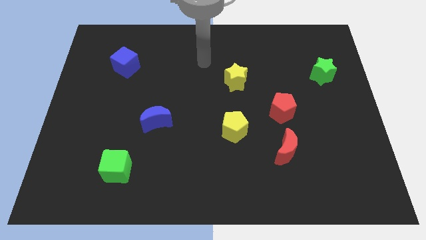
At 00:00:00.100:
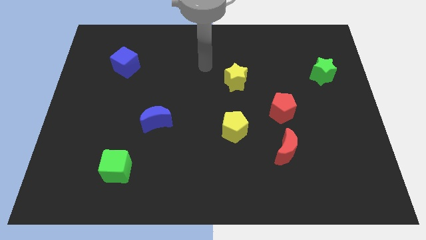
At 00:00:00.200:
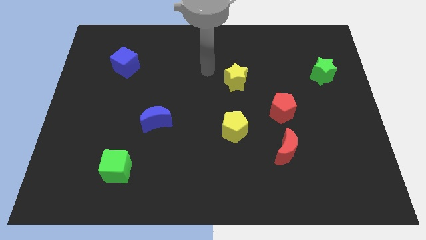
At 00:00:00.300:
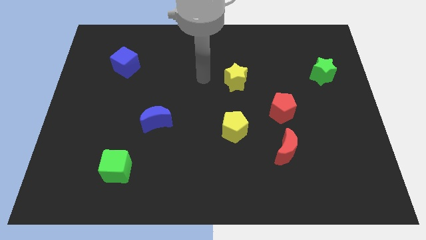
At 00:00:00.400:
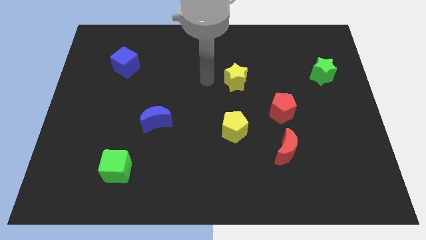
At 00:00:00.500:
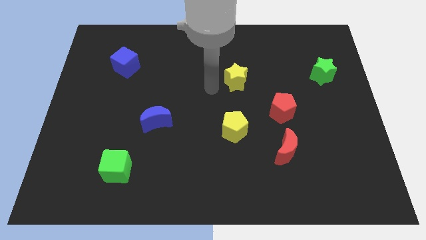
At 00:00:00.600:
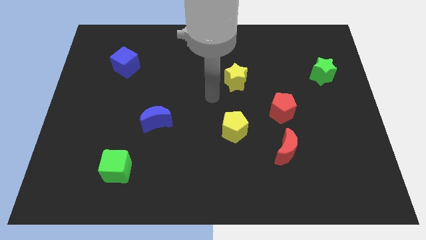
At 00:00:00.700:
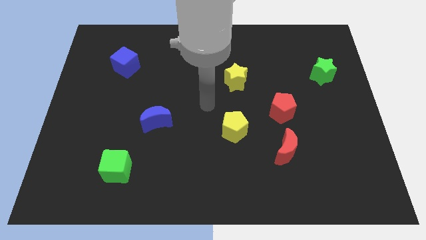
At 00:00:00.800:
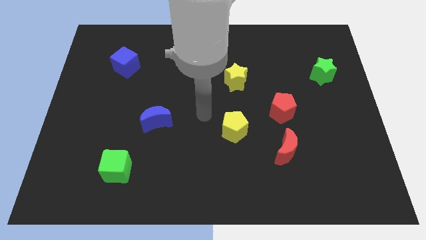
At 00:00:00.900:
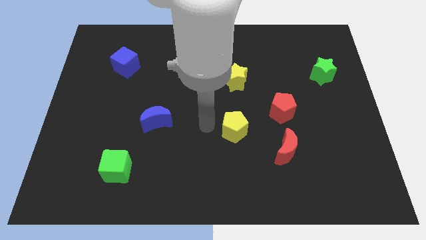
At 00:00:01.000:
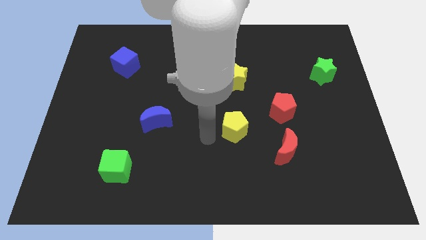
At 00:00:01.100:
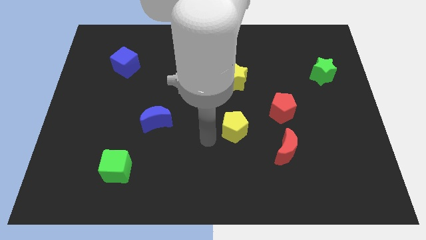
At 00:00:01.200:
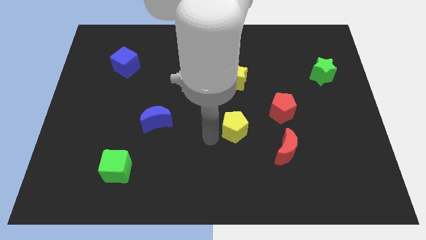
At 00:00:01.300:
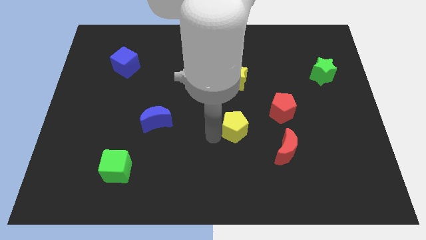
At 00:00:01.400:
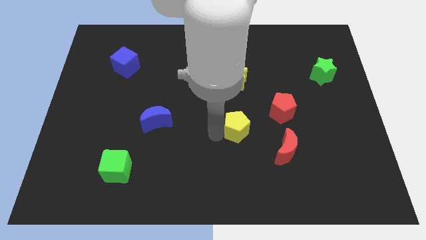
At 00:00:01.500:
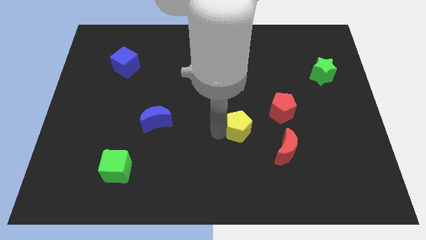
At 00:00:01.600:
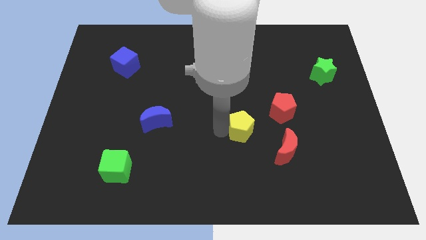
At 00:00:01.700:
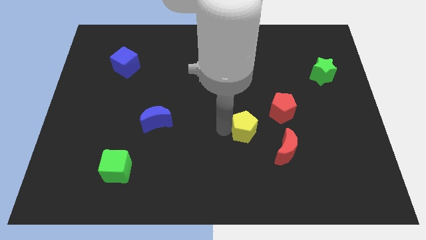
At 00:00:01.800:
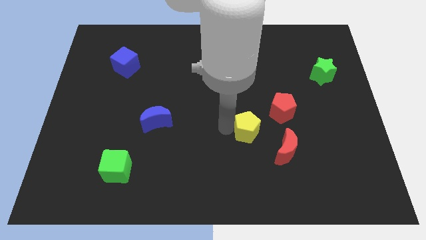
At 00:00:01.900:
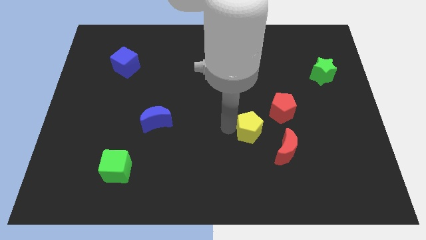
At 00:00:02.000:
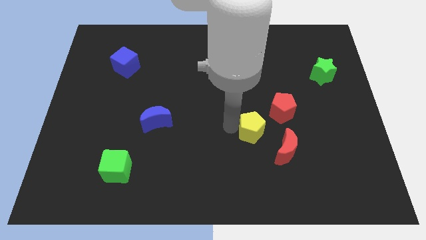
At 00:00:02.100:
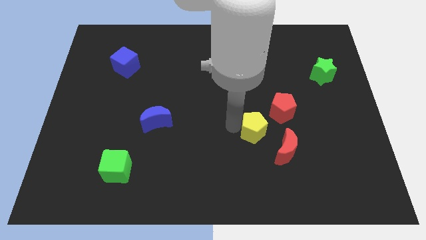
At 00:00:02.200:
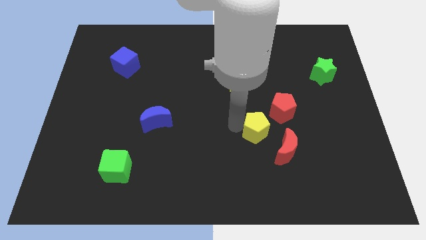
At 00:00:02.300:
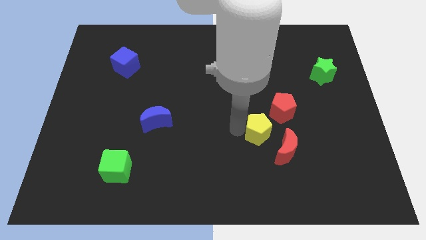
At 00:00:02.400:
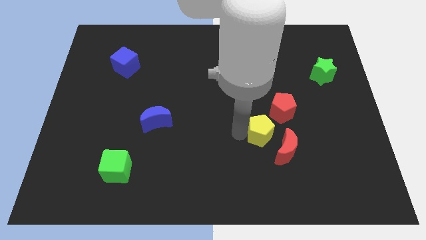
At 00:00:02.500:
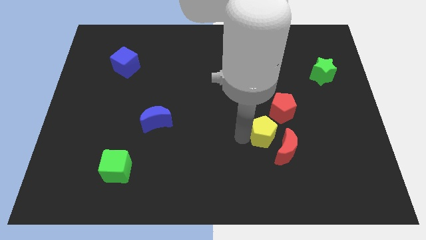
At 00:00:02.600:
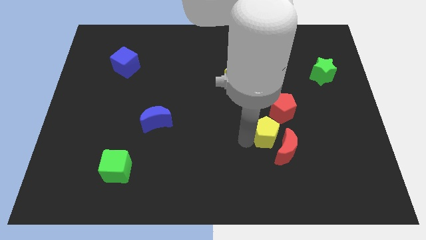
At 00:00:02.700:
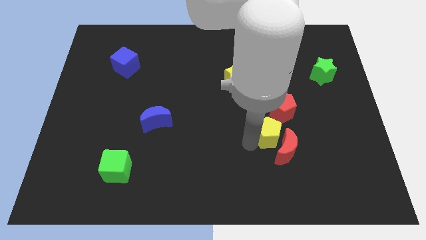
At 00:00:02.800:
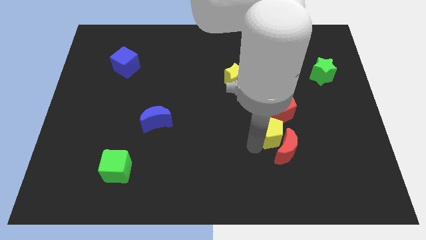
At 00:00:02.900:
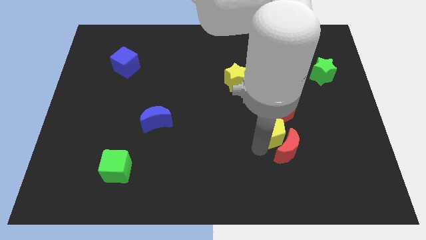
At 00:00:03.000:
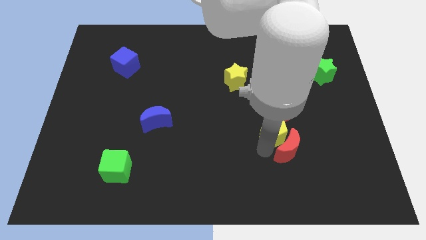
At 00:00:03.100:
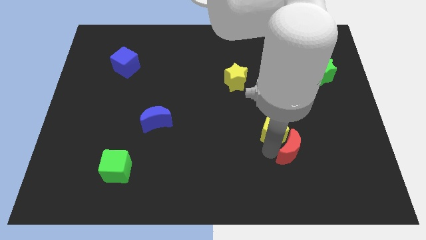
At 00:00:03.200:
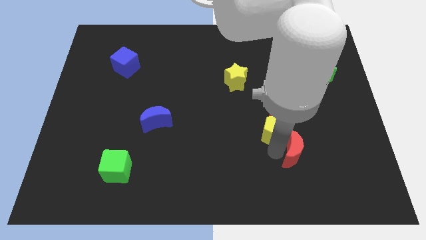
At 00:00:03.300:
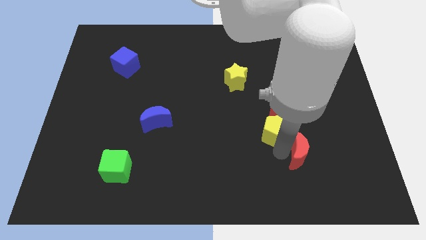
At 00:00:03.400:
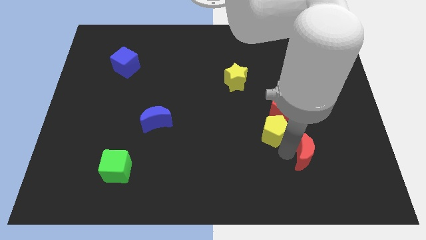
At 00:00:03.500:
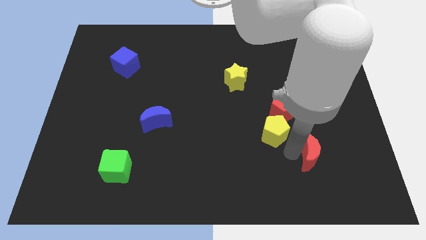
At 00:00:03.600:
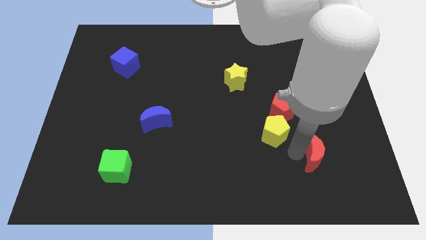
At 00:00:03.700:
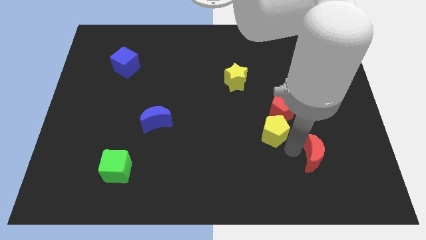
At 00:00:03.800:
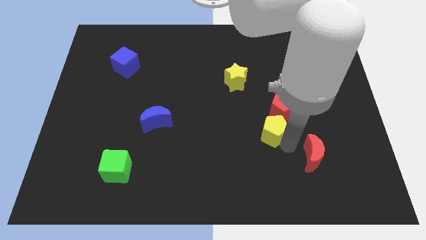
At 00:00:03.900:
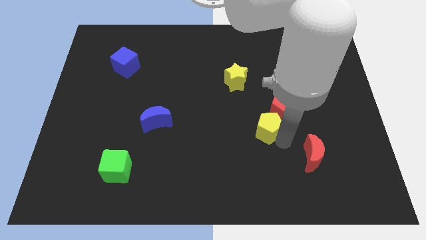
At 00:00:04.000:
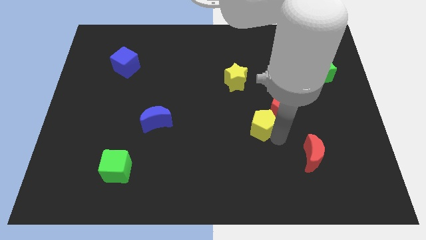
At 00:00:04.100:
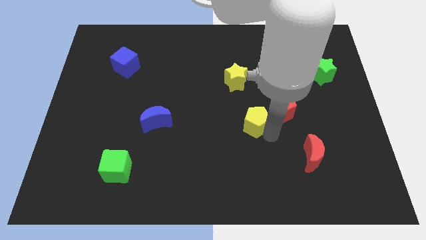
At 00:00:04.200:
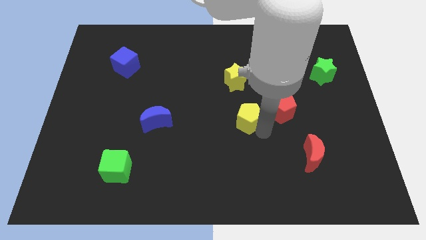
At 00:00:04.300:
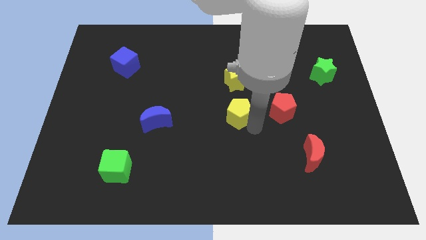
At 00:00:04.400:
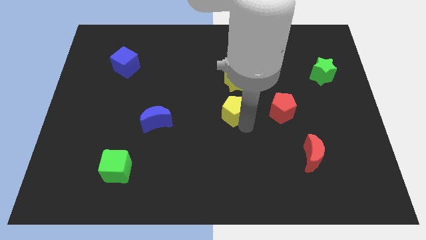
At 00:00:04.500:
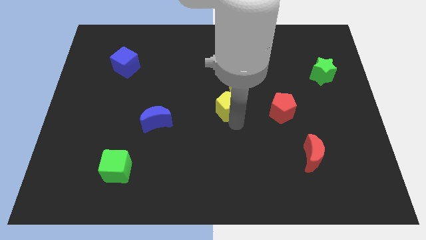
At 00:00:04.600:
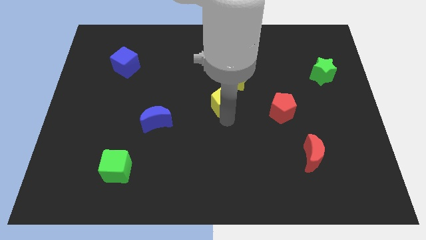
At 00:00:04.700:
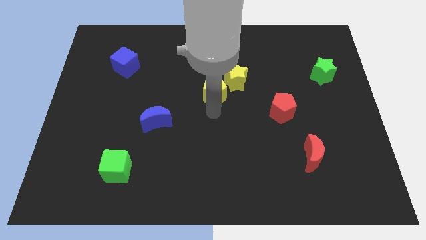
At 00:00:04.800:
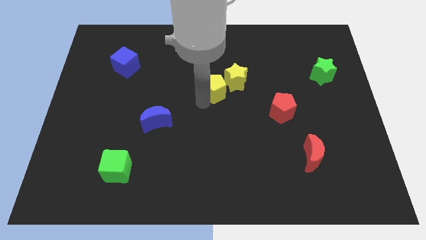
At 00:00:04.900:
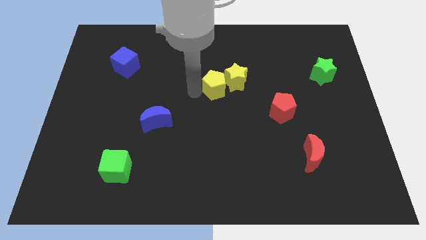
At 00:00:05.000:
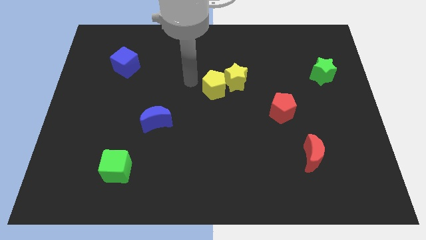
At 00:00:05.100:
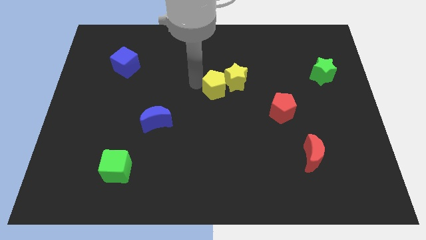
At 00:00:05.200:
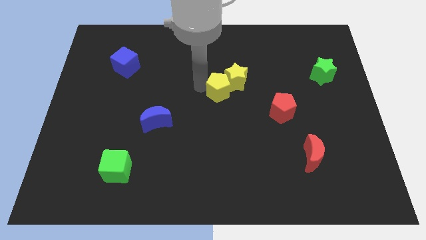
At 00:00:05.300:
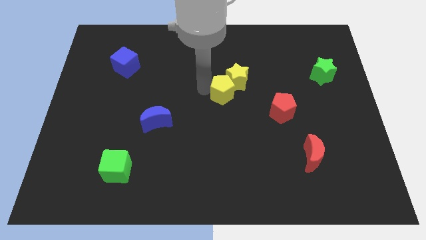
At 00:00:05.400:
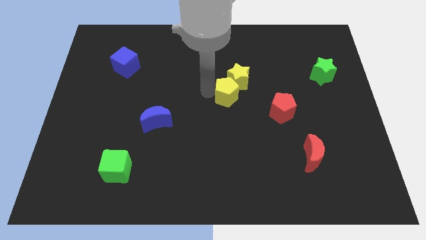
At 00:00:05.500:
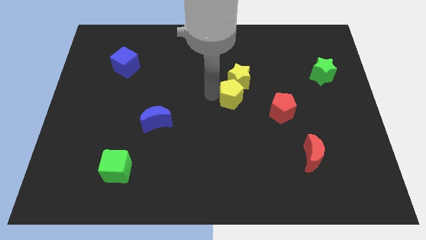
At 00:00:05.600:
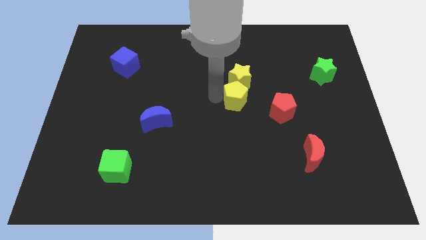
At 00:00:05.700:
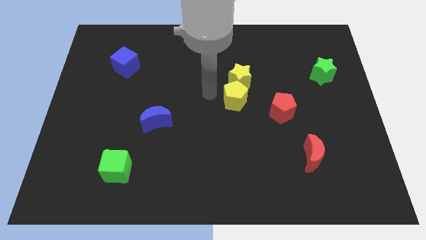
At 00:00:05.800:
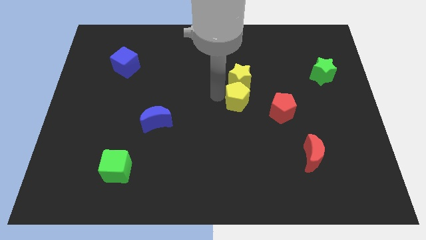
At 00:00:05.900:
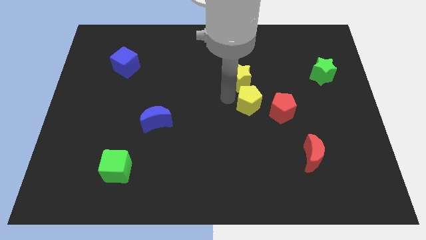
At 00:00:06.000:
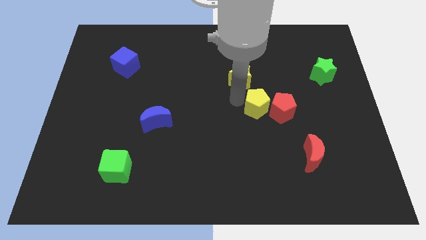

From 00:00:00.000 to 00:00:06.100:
move the yellow pentagon to the red pentagon

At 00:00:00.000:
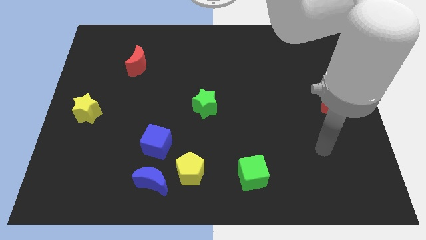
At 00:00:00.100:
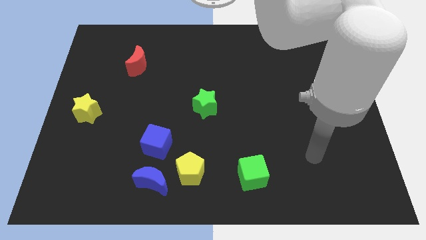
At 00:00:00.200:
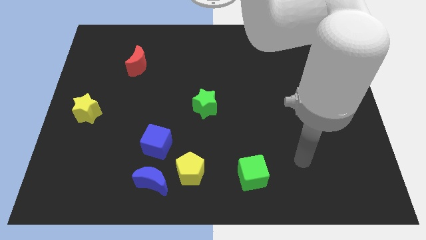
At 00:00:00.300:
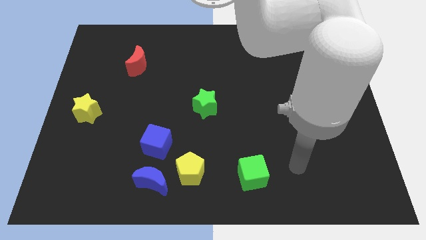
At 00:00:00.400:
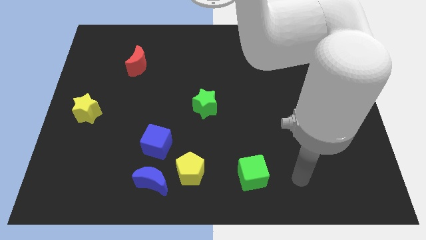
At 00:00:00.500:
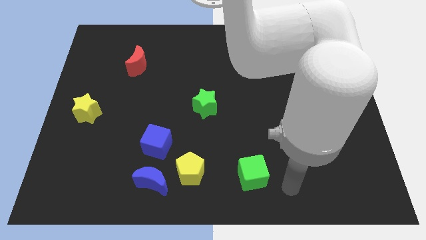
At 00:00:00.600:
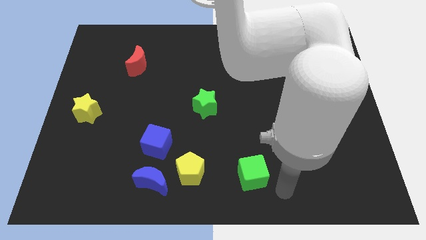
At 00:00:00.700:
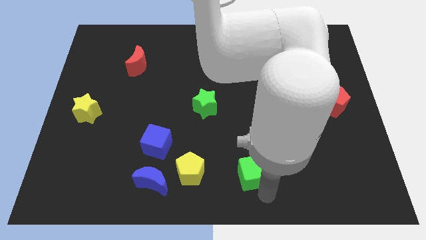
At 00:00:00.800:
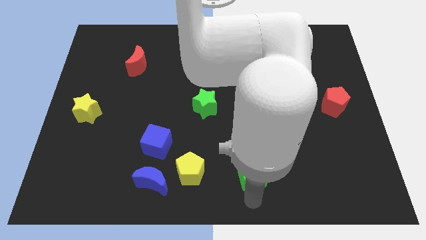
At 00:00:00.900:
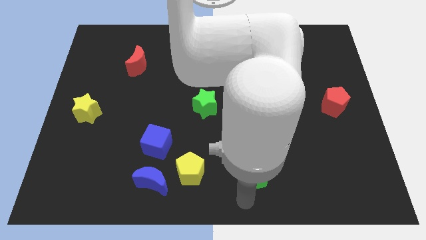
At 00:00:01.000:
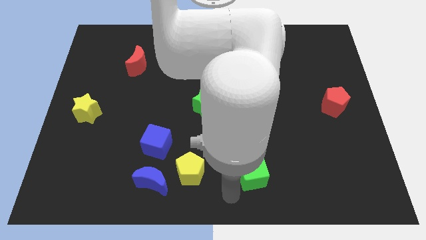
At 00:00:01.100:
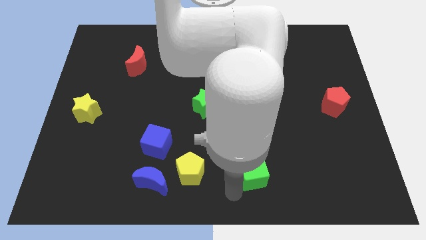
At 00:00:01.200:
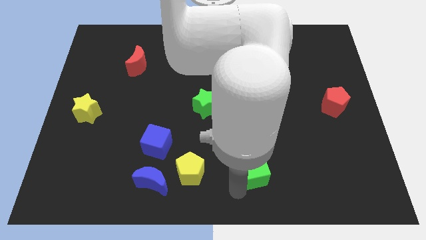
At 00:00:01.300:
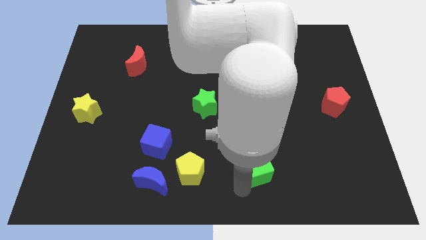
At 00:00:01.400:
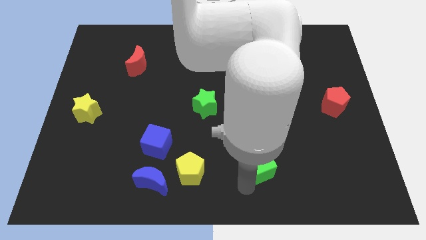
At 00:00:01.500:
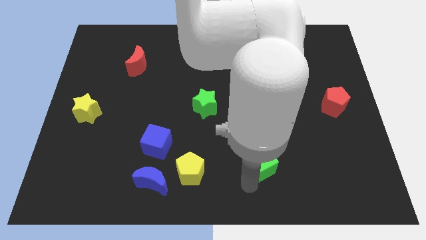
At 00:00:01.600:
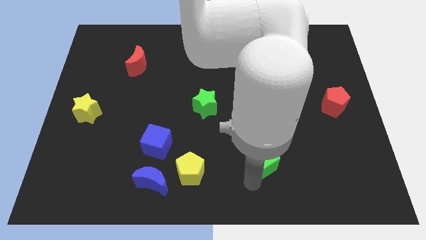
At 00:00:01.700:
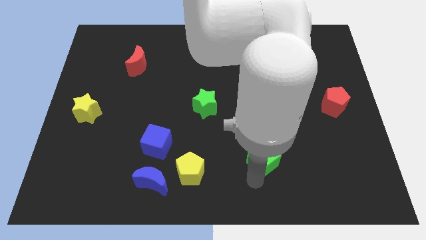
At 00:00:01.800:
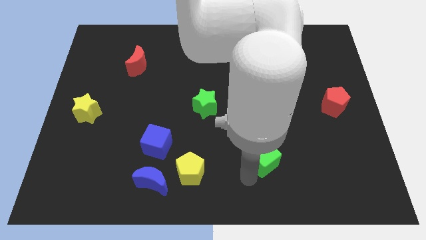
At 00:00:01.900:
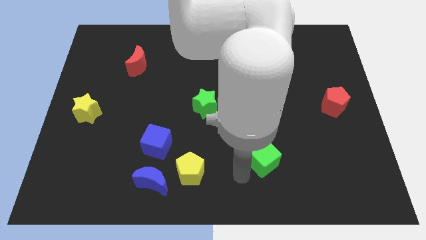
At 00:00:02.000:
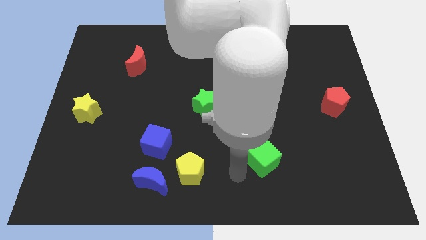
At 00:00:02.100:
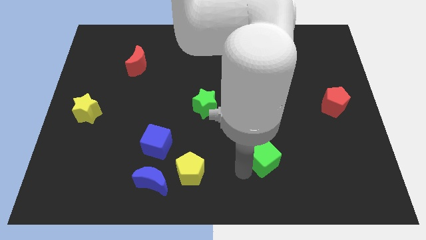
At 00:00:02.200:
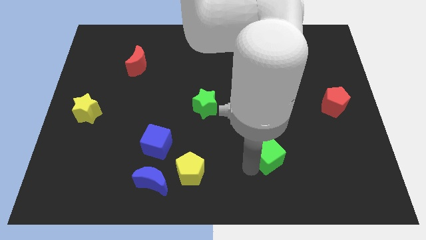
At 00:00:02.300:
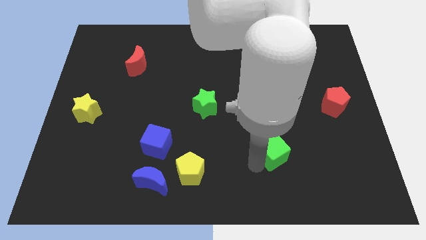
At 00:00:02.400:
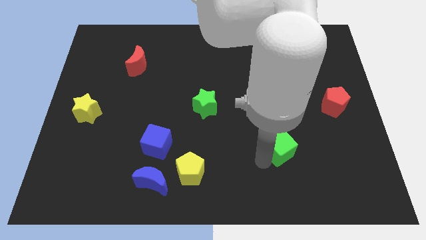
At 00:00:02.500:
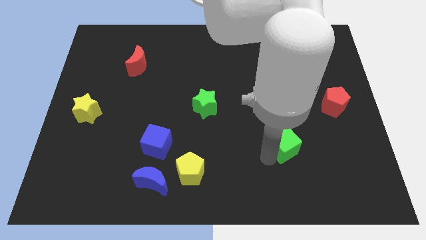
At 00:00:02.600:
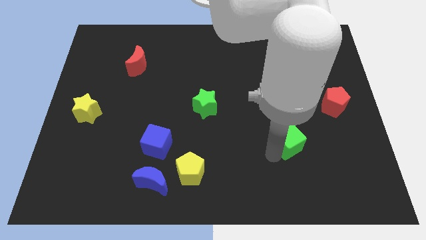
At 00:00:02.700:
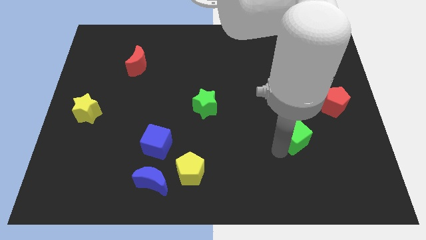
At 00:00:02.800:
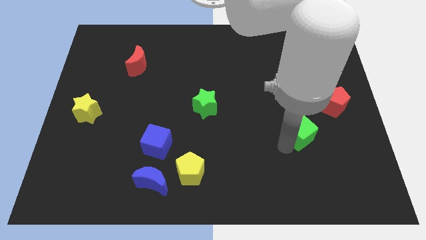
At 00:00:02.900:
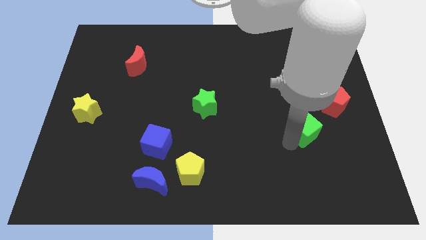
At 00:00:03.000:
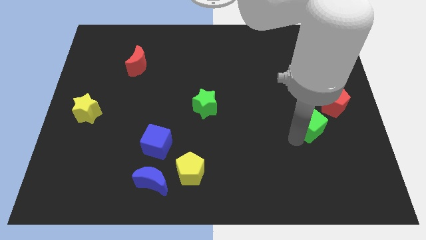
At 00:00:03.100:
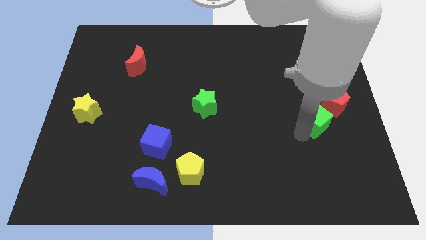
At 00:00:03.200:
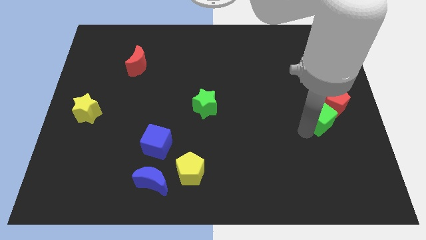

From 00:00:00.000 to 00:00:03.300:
move the green cube close to the red pentagon
